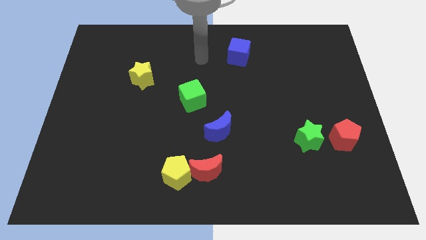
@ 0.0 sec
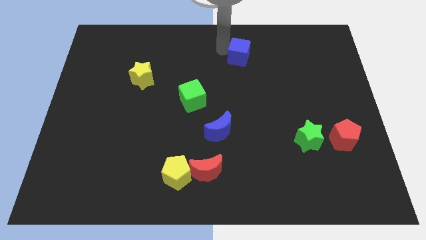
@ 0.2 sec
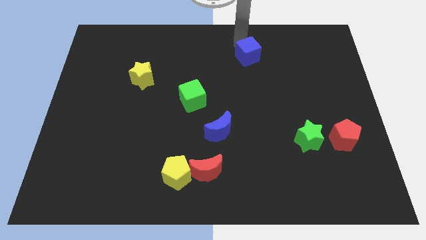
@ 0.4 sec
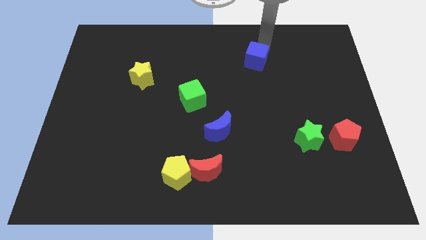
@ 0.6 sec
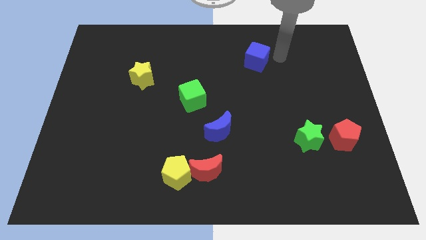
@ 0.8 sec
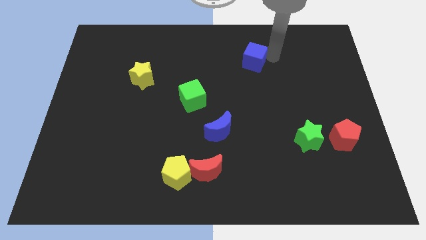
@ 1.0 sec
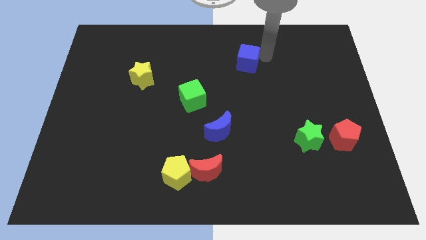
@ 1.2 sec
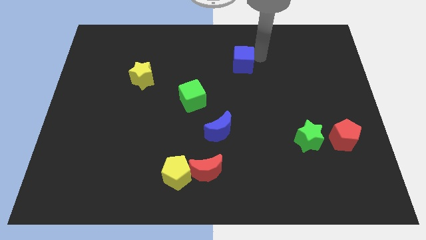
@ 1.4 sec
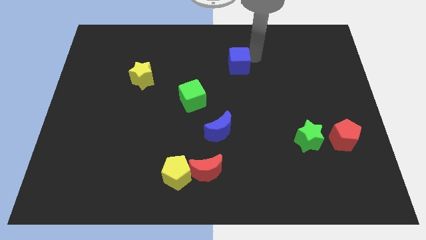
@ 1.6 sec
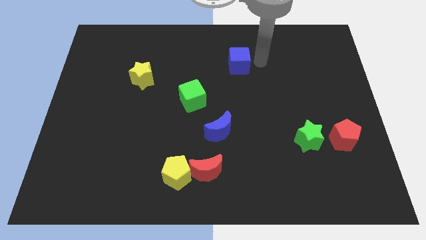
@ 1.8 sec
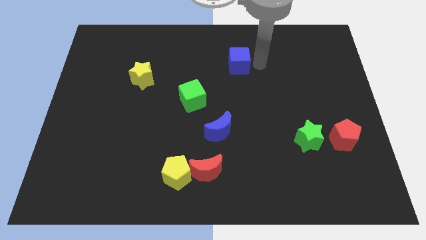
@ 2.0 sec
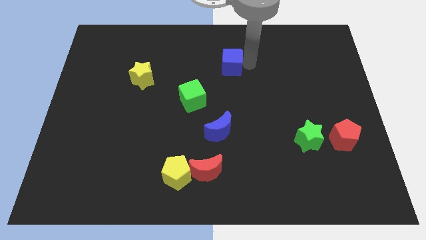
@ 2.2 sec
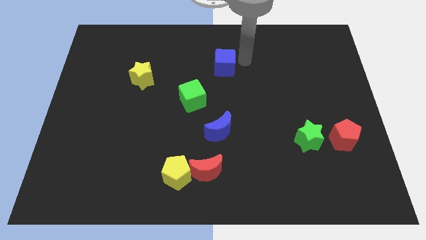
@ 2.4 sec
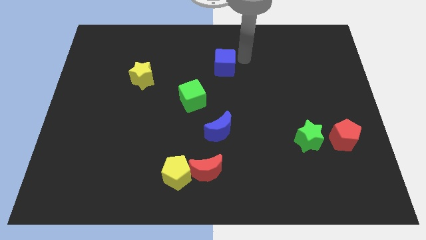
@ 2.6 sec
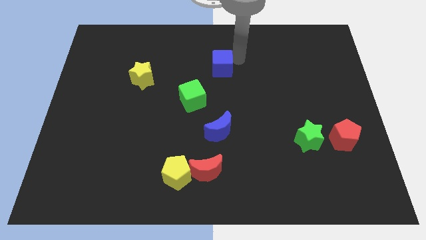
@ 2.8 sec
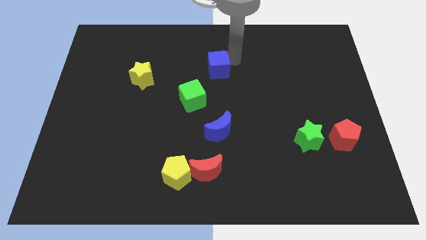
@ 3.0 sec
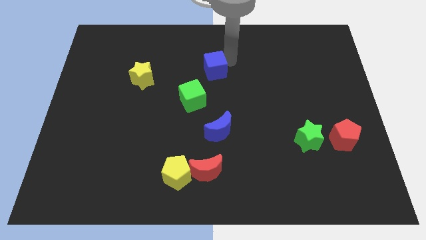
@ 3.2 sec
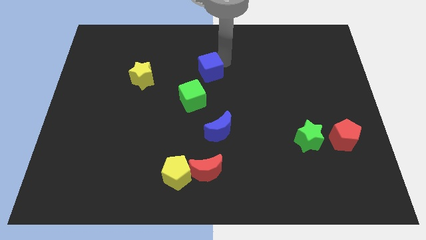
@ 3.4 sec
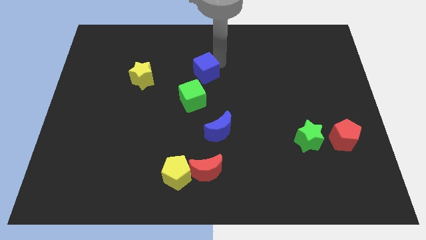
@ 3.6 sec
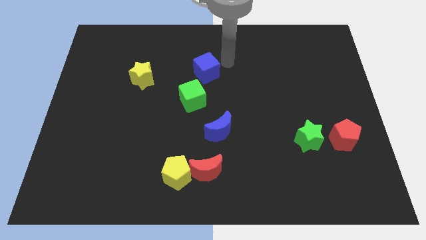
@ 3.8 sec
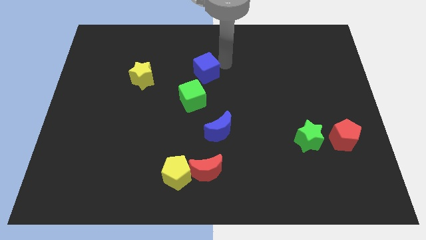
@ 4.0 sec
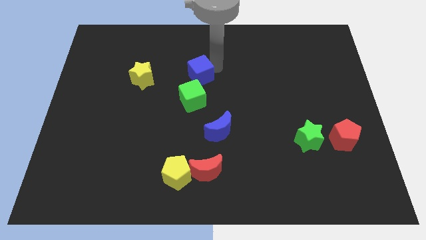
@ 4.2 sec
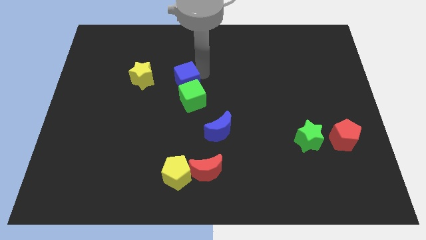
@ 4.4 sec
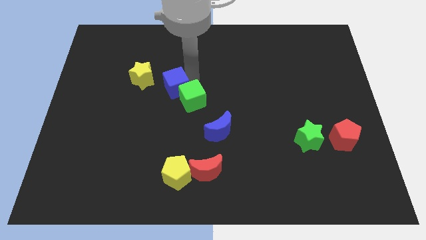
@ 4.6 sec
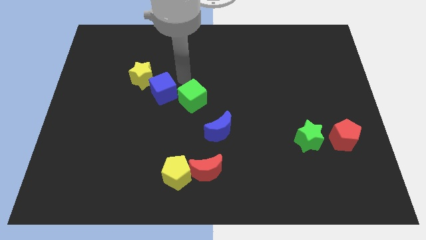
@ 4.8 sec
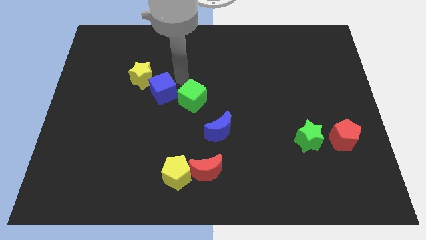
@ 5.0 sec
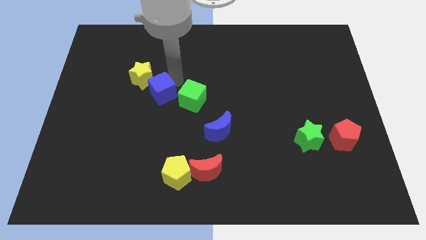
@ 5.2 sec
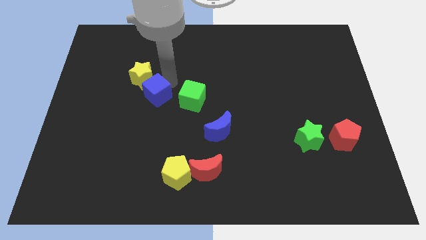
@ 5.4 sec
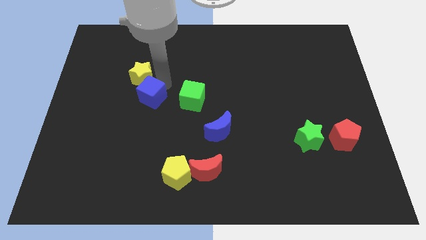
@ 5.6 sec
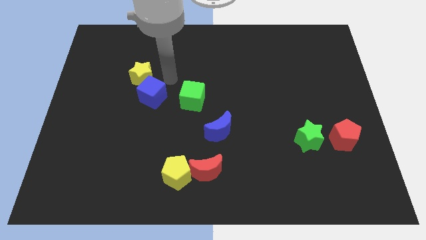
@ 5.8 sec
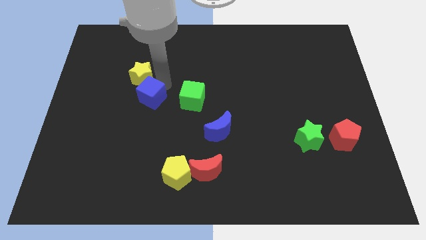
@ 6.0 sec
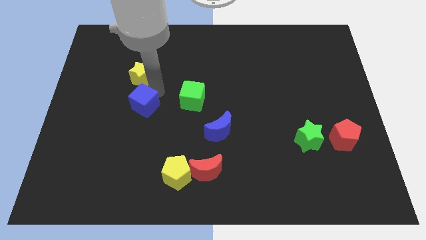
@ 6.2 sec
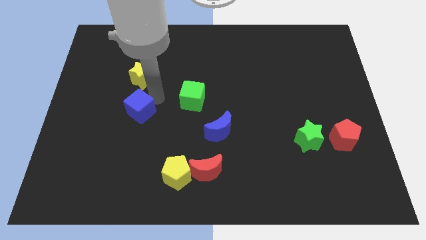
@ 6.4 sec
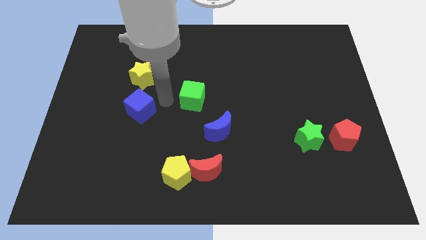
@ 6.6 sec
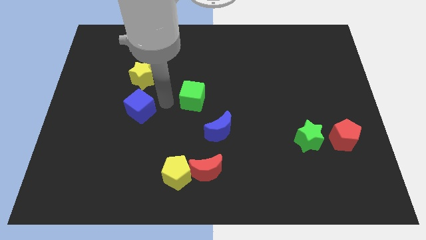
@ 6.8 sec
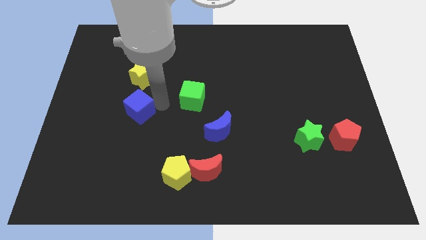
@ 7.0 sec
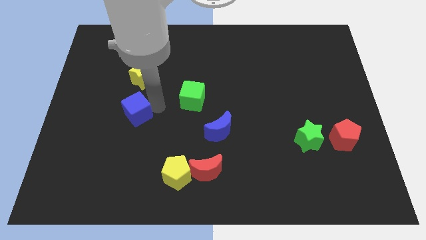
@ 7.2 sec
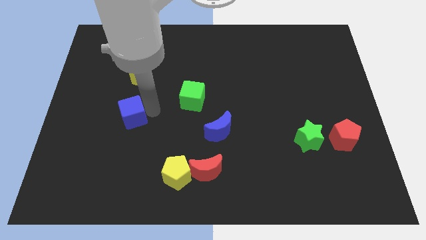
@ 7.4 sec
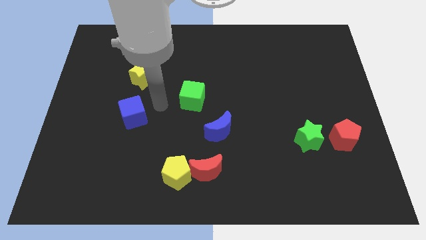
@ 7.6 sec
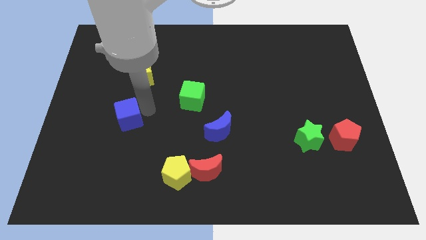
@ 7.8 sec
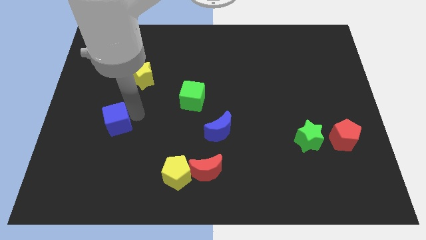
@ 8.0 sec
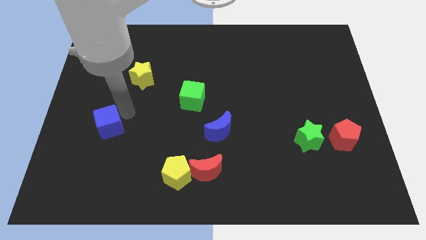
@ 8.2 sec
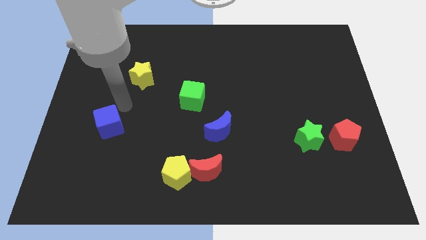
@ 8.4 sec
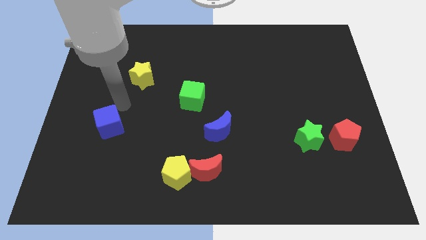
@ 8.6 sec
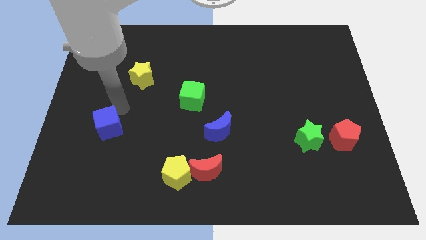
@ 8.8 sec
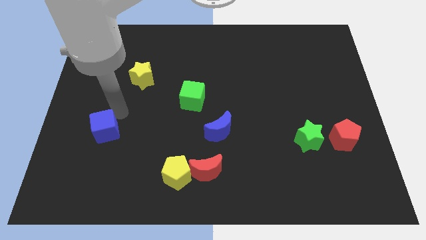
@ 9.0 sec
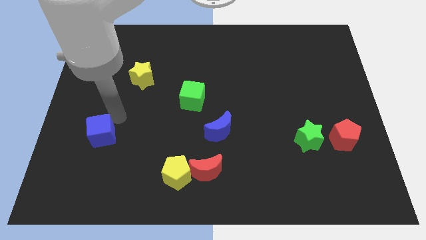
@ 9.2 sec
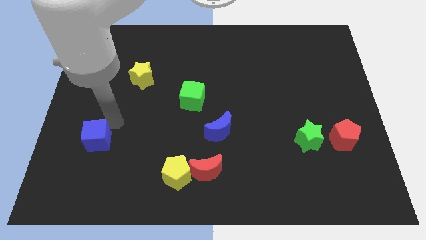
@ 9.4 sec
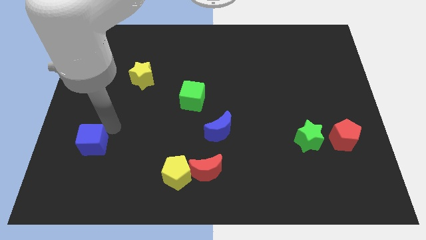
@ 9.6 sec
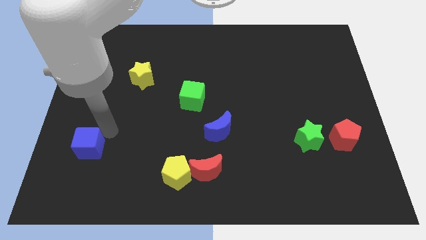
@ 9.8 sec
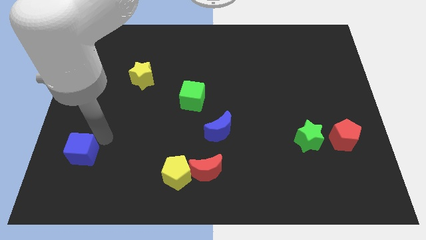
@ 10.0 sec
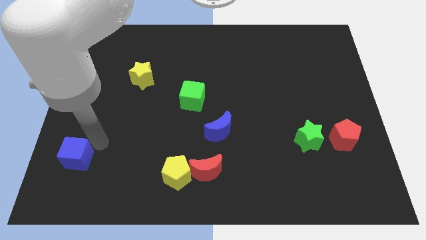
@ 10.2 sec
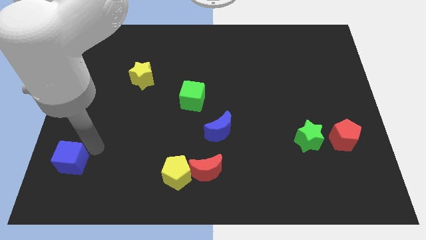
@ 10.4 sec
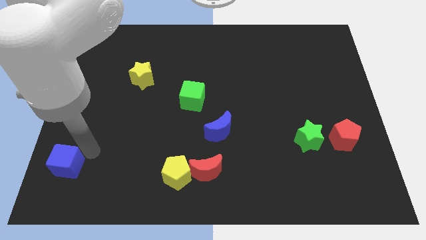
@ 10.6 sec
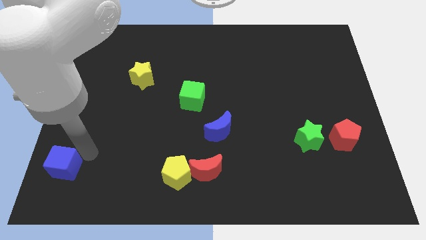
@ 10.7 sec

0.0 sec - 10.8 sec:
push the blue cube to the lower left corner
